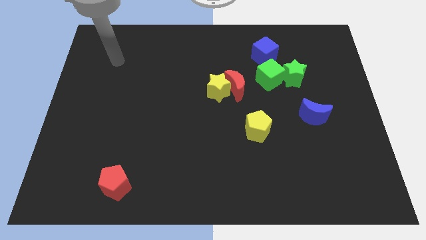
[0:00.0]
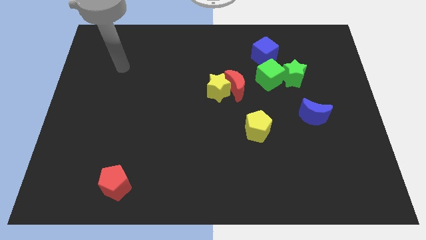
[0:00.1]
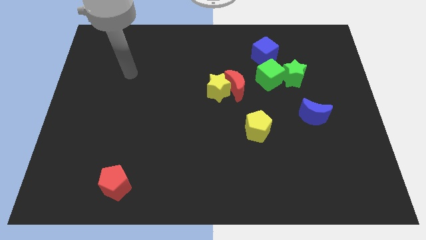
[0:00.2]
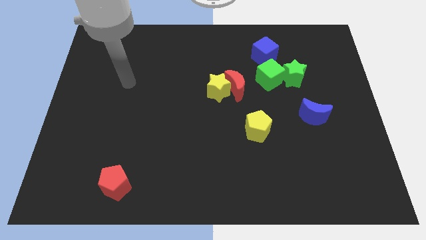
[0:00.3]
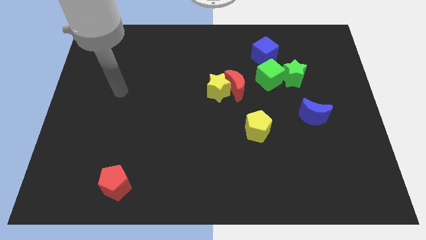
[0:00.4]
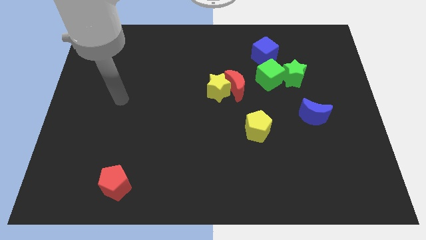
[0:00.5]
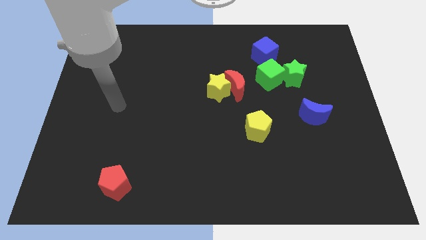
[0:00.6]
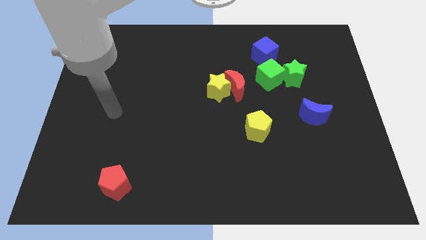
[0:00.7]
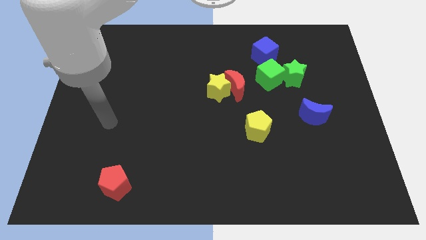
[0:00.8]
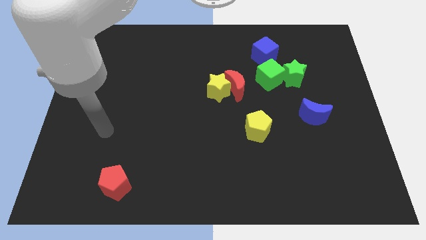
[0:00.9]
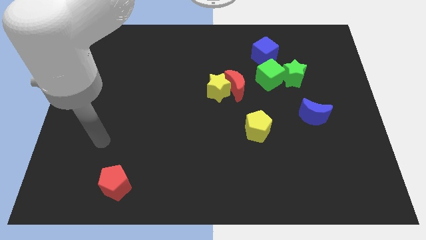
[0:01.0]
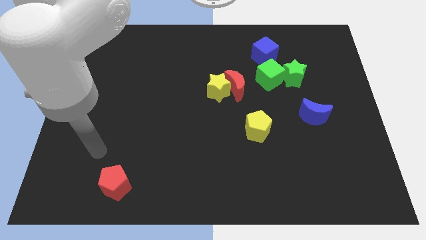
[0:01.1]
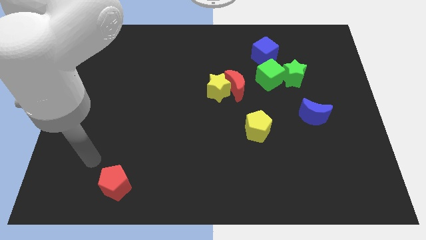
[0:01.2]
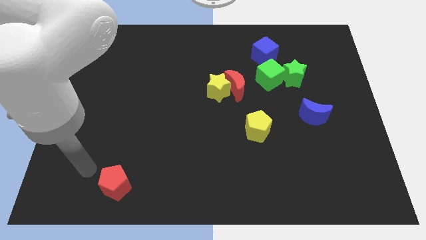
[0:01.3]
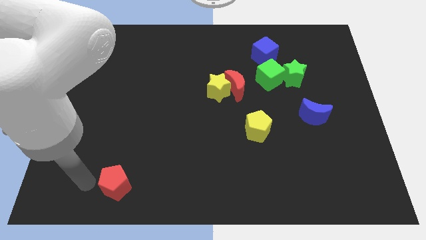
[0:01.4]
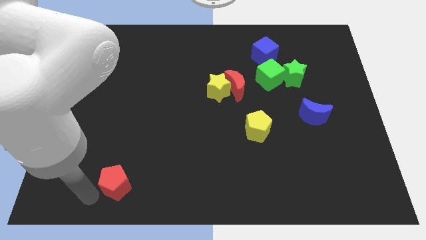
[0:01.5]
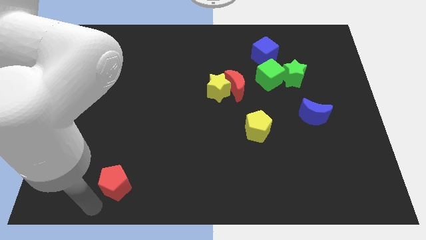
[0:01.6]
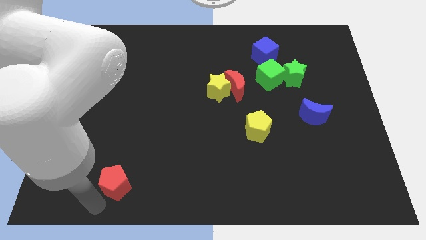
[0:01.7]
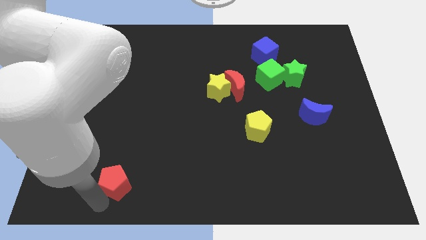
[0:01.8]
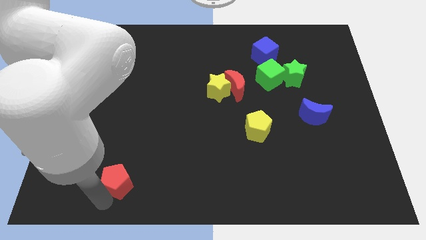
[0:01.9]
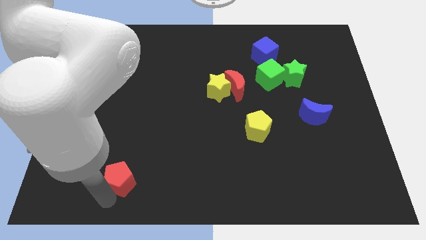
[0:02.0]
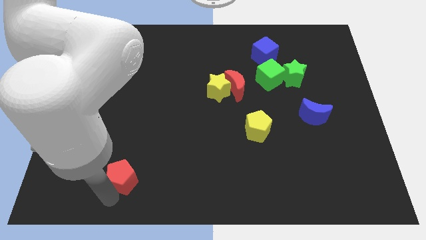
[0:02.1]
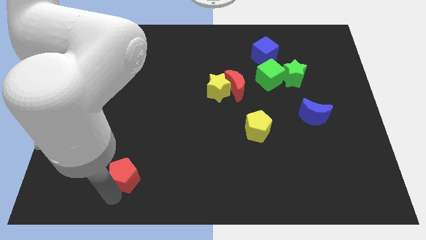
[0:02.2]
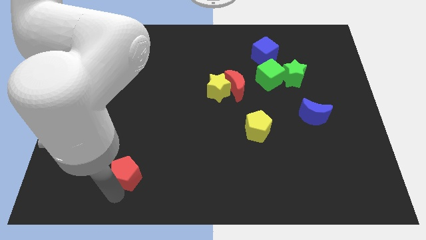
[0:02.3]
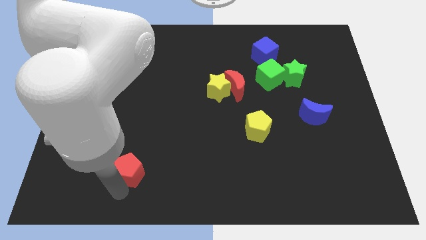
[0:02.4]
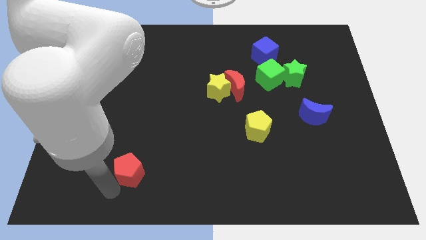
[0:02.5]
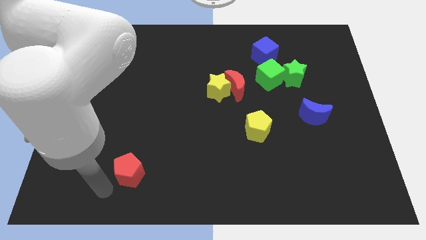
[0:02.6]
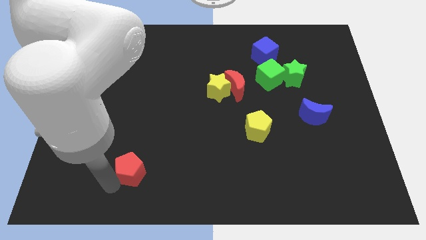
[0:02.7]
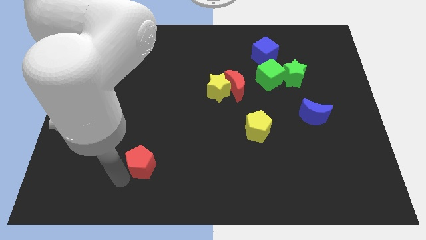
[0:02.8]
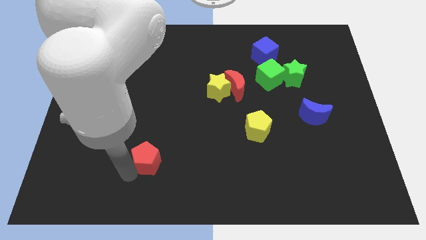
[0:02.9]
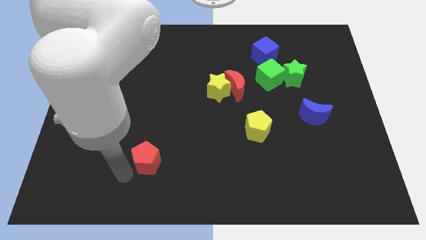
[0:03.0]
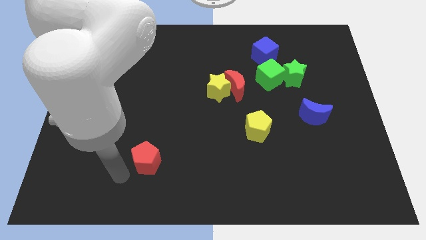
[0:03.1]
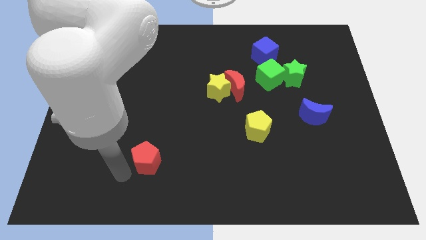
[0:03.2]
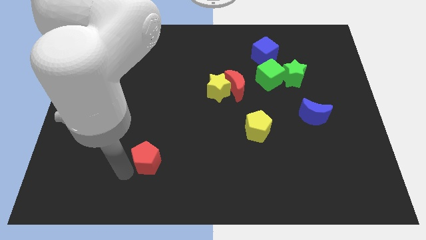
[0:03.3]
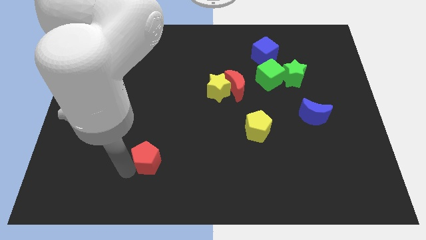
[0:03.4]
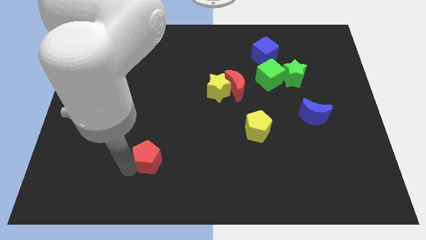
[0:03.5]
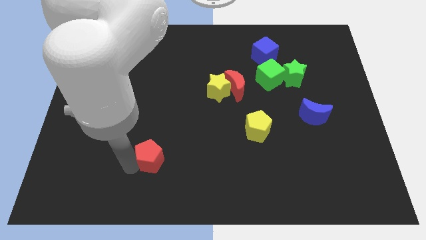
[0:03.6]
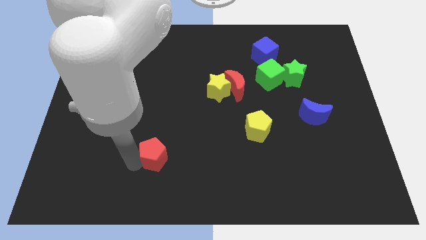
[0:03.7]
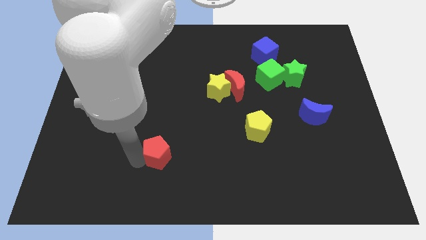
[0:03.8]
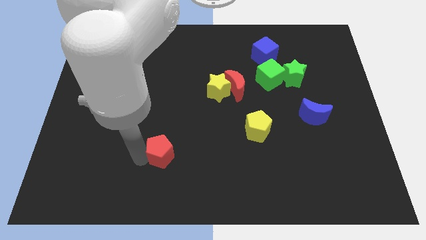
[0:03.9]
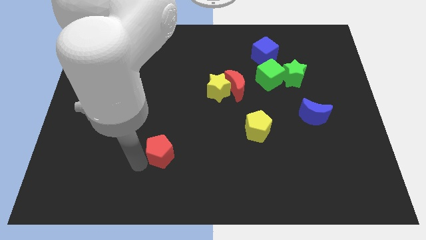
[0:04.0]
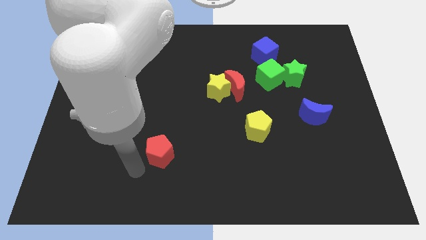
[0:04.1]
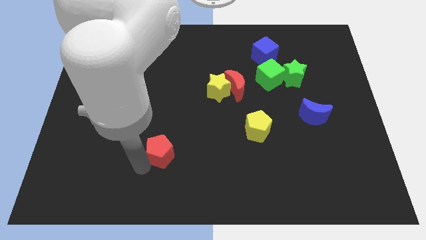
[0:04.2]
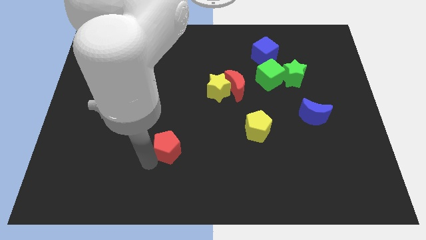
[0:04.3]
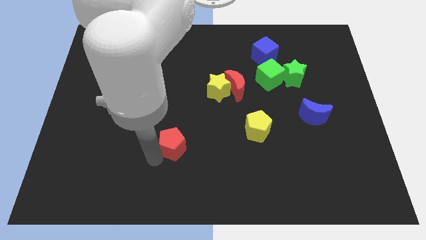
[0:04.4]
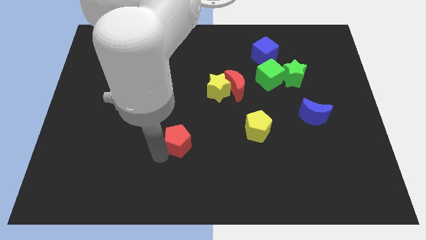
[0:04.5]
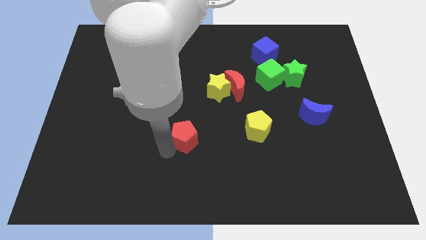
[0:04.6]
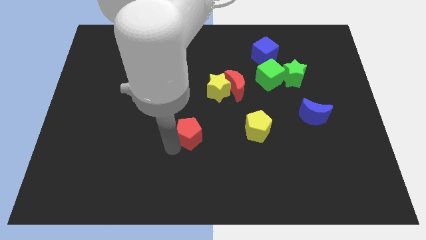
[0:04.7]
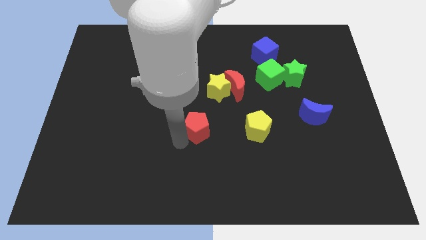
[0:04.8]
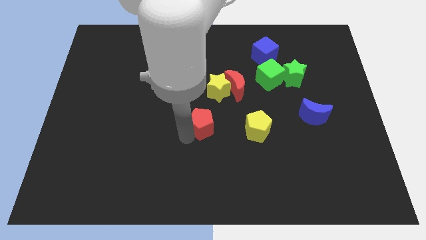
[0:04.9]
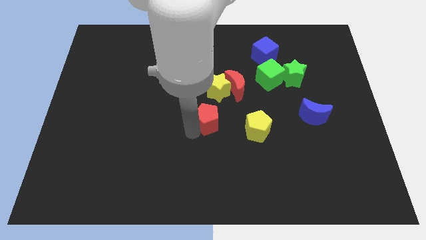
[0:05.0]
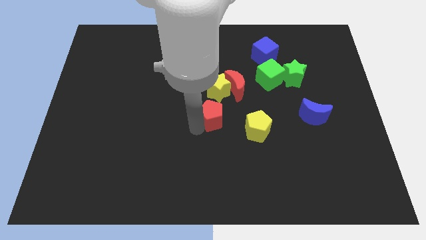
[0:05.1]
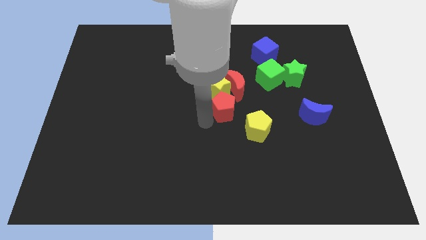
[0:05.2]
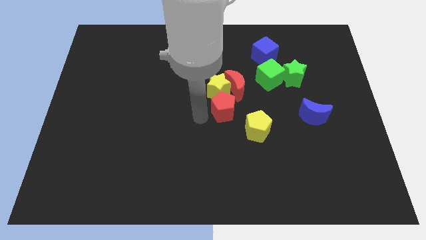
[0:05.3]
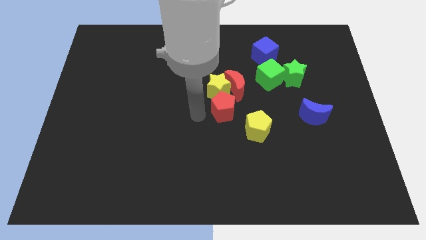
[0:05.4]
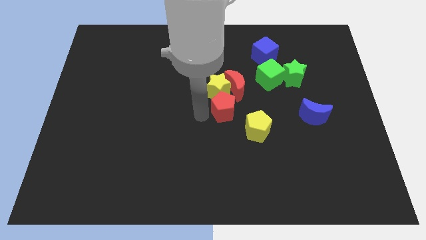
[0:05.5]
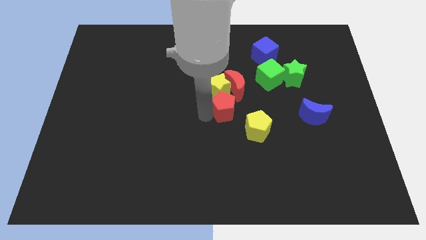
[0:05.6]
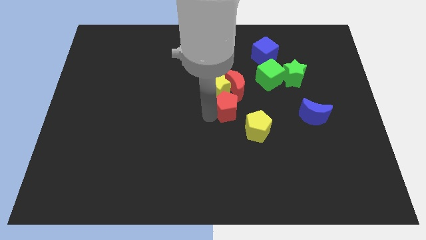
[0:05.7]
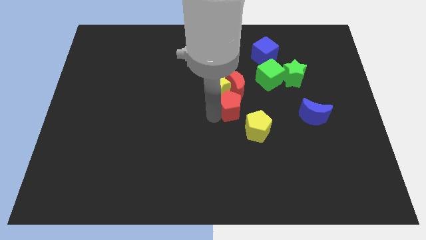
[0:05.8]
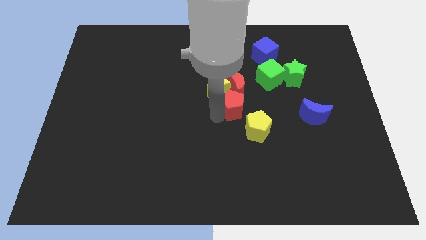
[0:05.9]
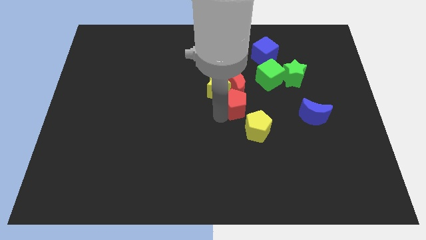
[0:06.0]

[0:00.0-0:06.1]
move the red pentagon to the bottom right side of the red moon

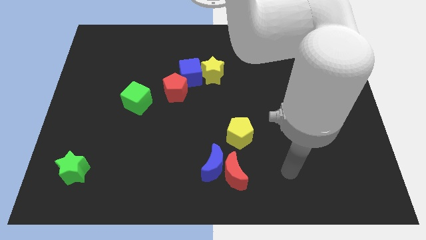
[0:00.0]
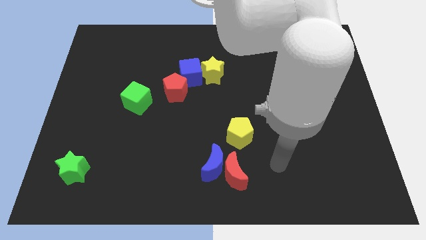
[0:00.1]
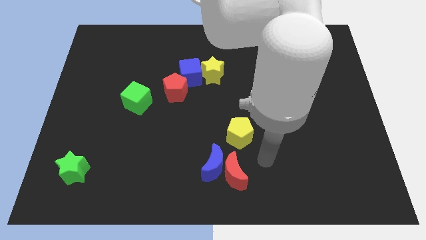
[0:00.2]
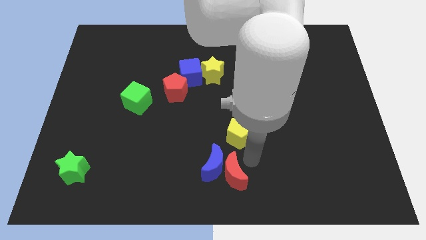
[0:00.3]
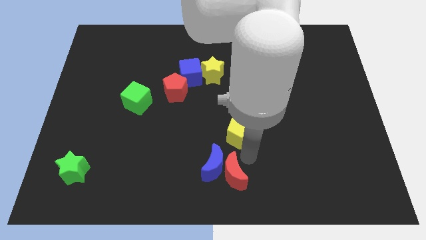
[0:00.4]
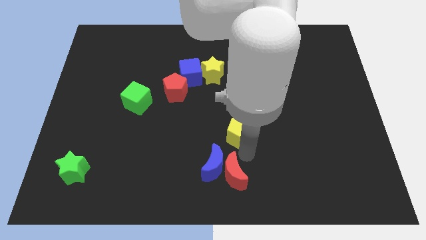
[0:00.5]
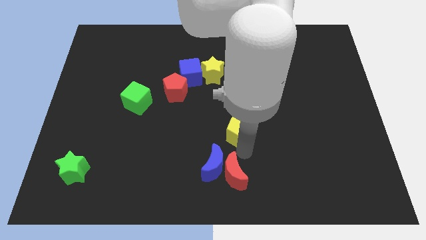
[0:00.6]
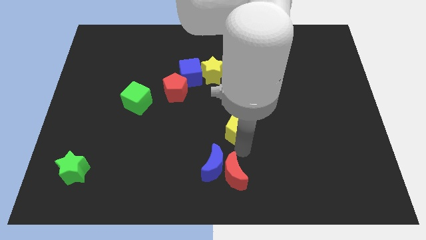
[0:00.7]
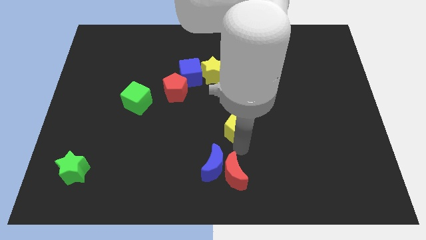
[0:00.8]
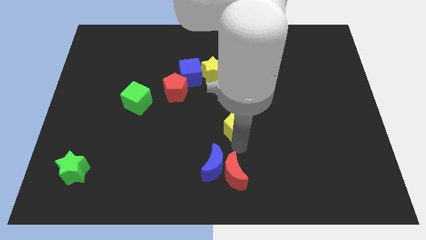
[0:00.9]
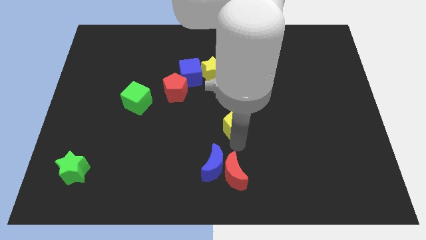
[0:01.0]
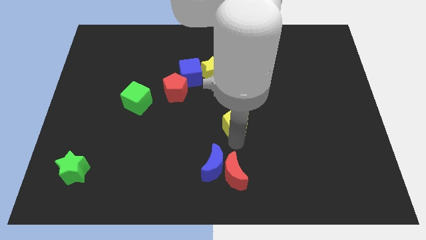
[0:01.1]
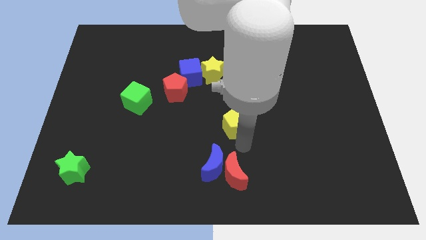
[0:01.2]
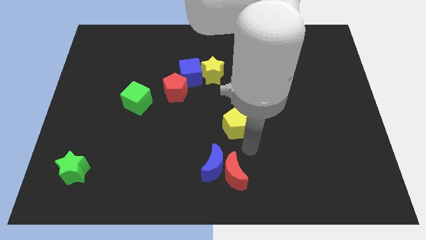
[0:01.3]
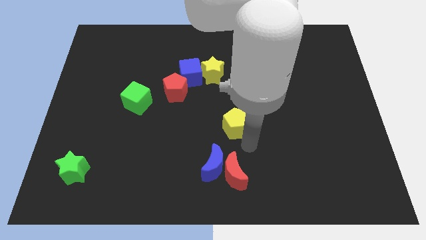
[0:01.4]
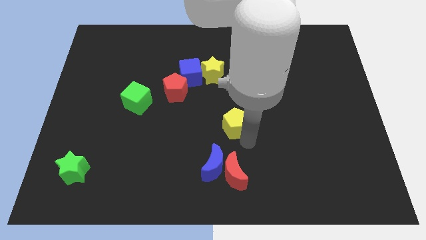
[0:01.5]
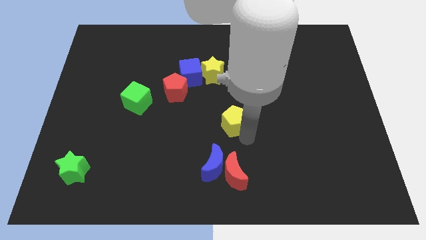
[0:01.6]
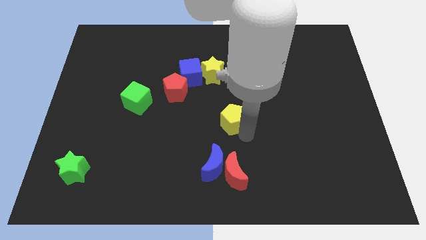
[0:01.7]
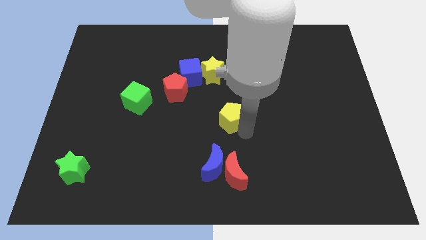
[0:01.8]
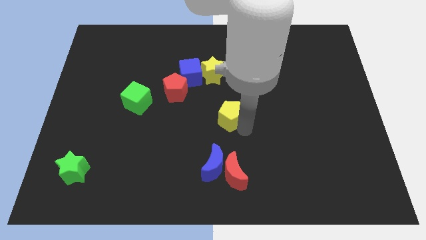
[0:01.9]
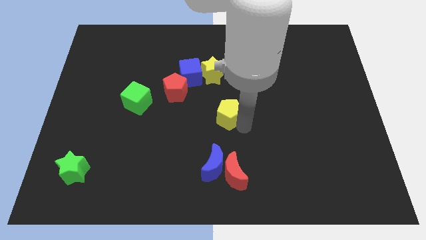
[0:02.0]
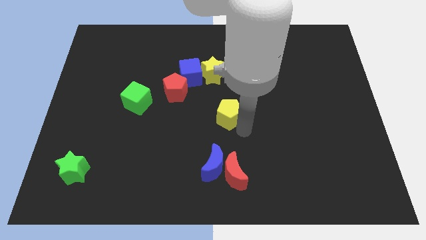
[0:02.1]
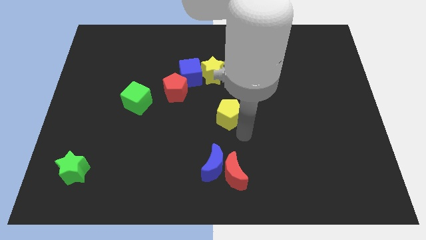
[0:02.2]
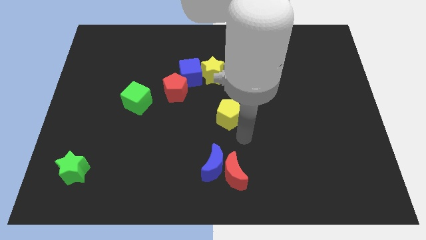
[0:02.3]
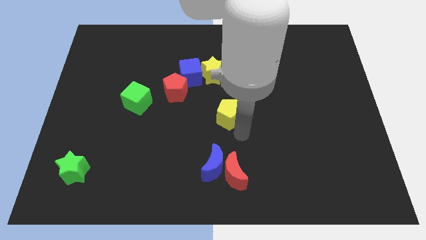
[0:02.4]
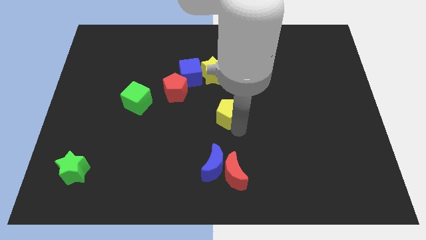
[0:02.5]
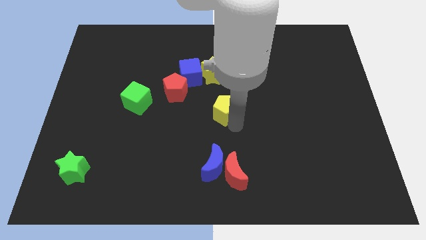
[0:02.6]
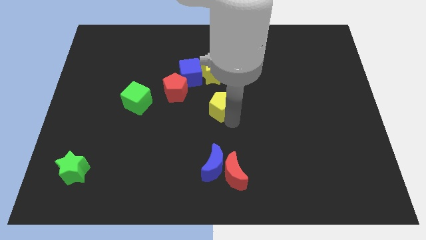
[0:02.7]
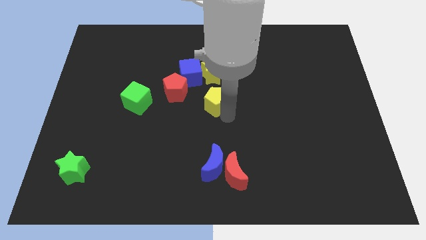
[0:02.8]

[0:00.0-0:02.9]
move the yellow pentagon to the bottom right of the blue cube
